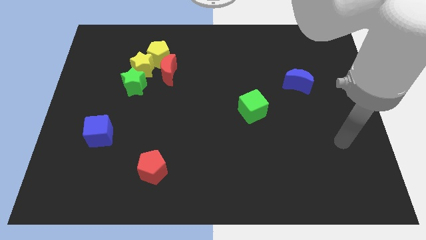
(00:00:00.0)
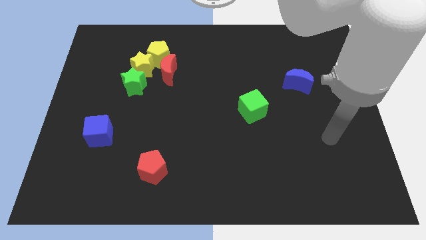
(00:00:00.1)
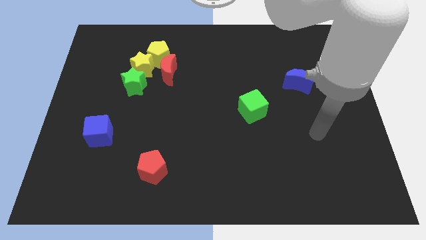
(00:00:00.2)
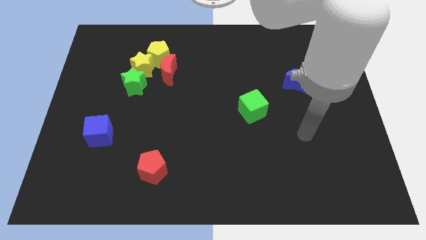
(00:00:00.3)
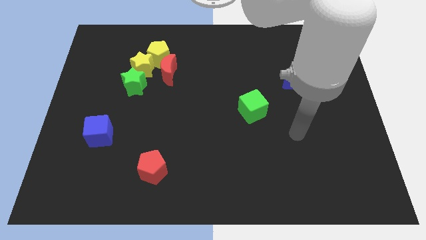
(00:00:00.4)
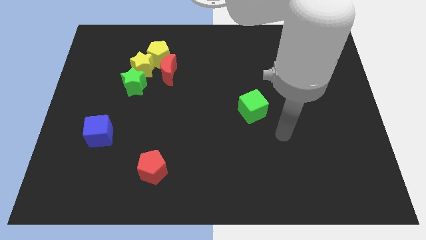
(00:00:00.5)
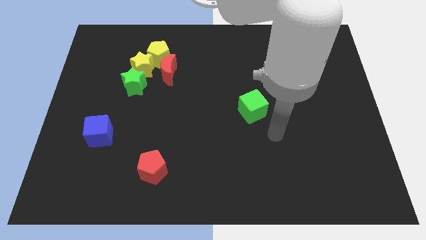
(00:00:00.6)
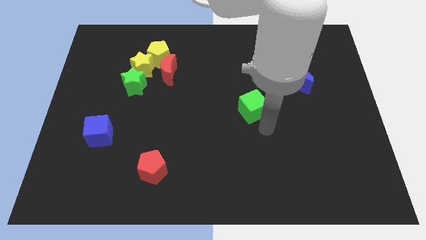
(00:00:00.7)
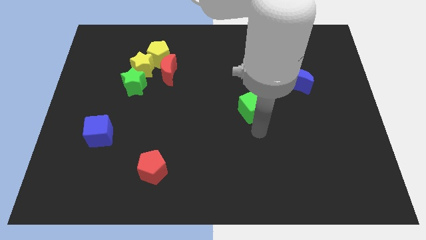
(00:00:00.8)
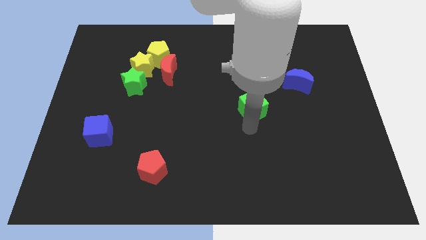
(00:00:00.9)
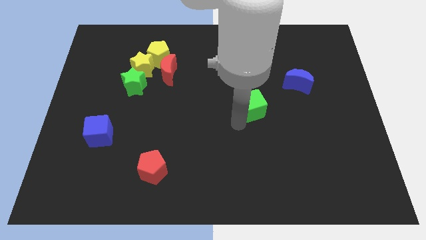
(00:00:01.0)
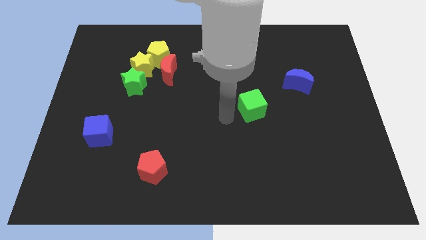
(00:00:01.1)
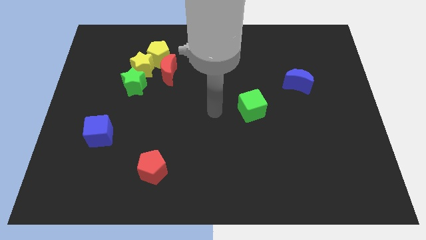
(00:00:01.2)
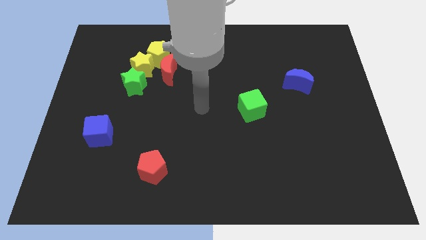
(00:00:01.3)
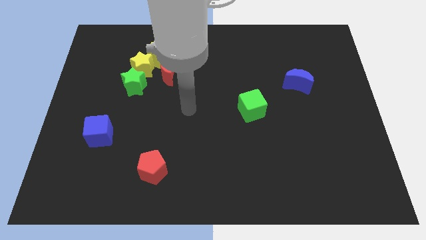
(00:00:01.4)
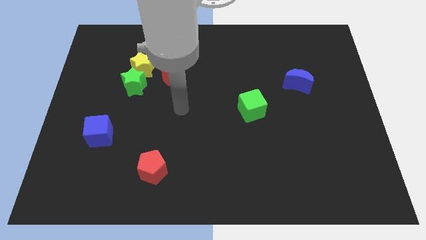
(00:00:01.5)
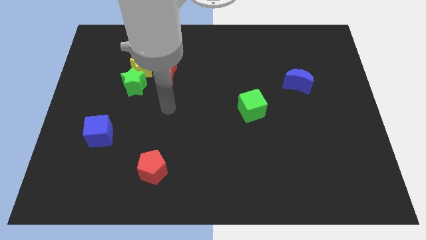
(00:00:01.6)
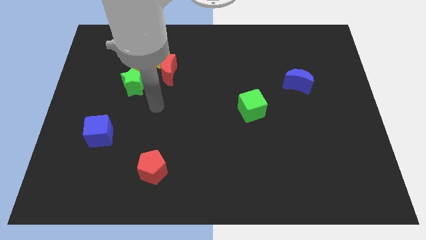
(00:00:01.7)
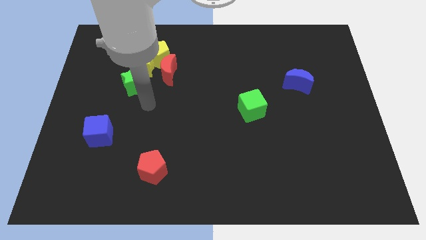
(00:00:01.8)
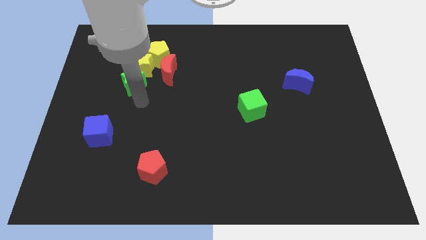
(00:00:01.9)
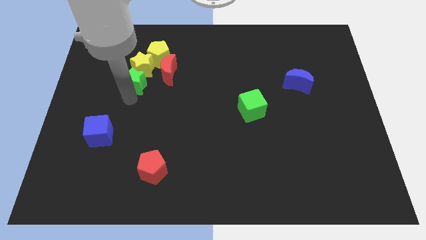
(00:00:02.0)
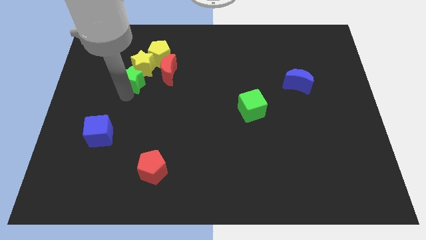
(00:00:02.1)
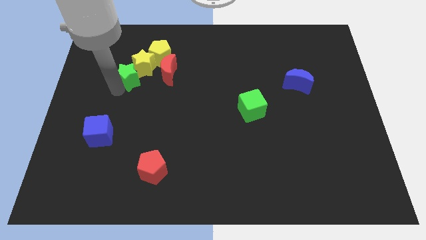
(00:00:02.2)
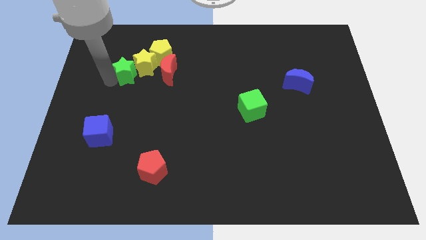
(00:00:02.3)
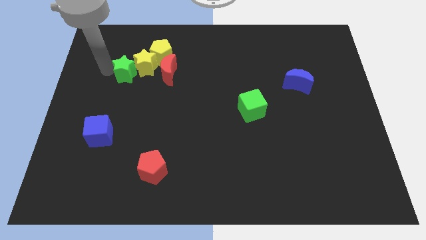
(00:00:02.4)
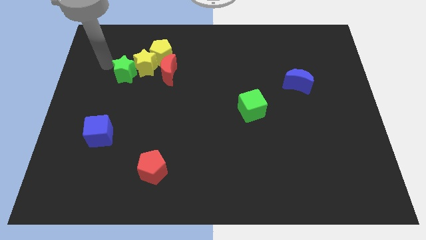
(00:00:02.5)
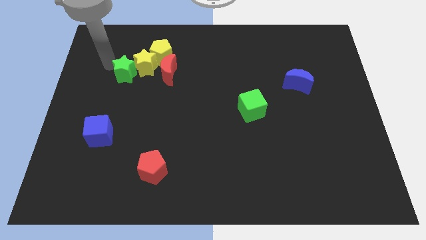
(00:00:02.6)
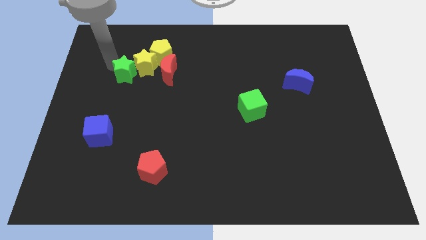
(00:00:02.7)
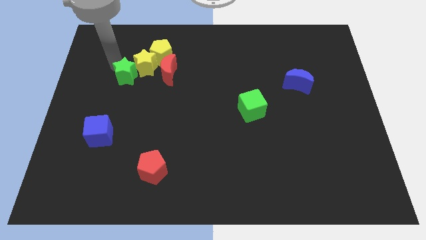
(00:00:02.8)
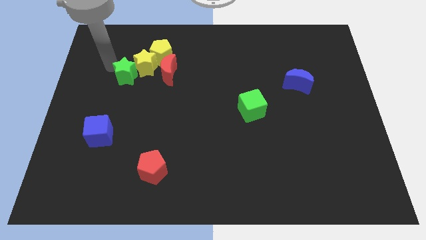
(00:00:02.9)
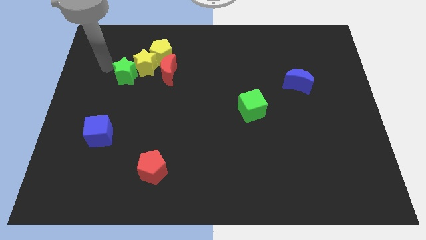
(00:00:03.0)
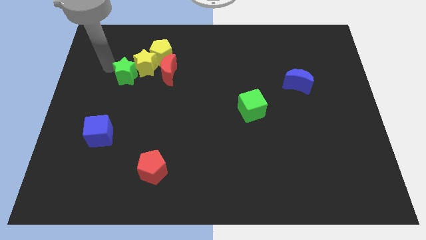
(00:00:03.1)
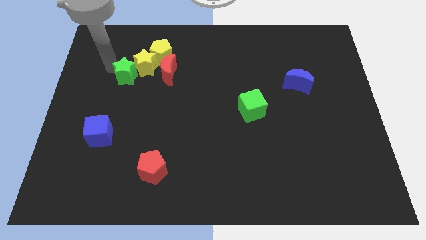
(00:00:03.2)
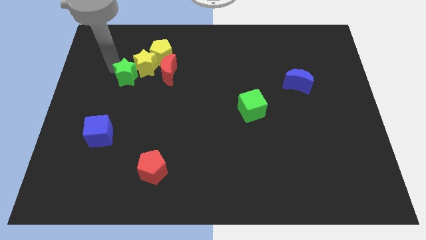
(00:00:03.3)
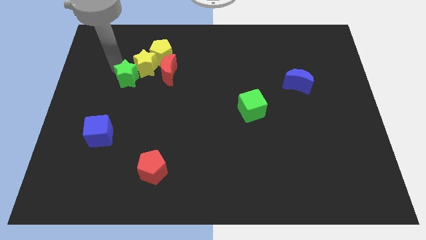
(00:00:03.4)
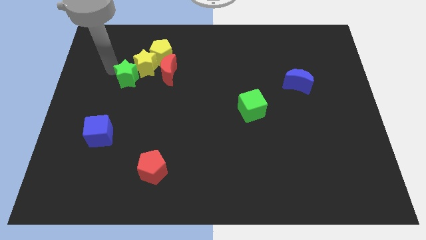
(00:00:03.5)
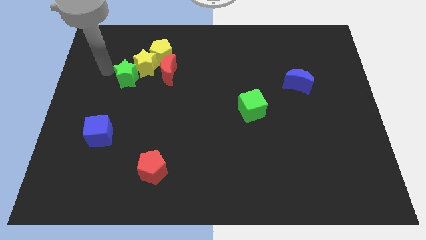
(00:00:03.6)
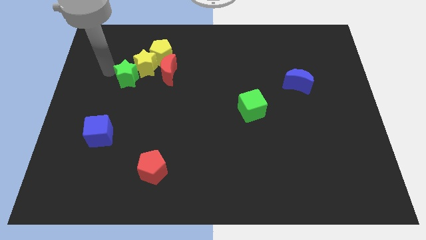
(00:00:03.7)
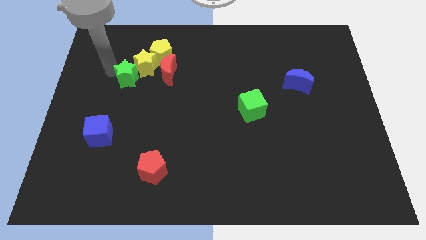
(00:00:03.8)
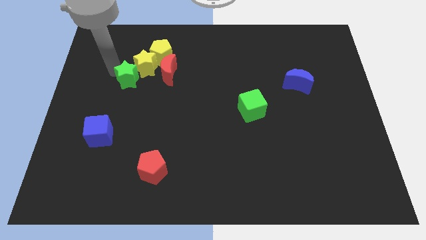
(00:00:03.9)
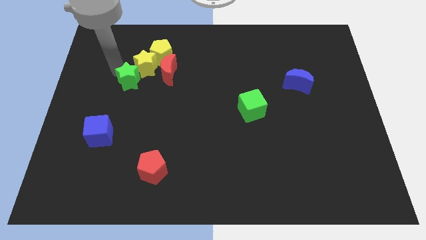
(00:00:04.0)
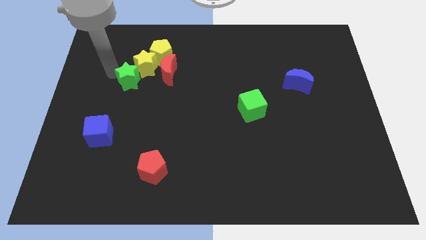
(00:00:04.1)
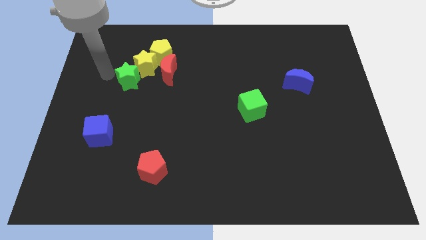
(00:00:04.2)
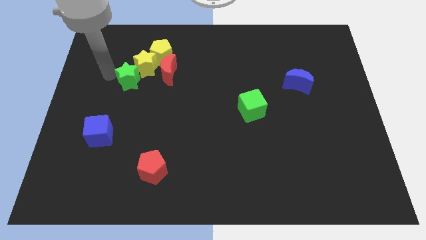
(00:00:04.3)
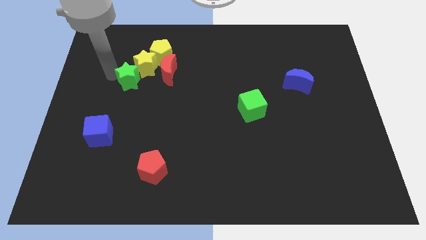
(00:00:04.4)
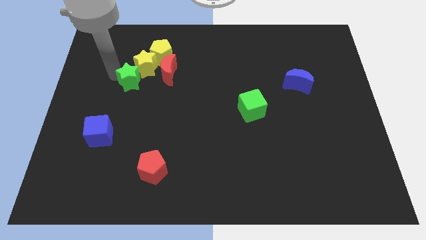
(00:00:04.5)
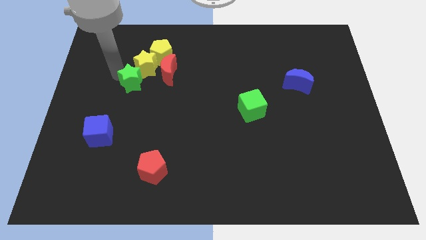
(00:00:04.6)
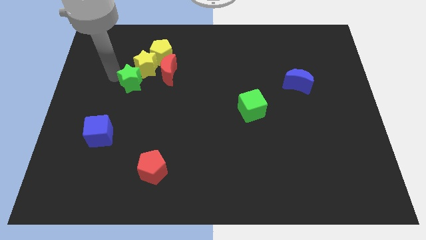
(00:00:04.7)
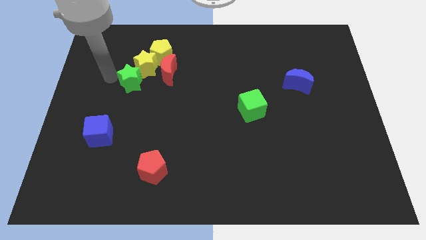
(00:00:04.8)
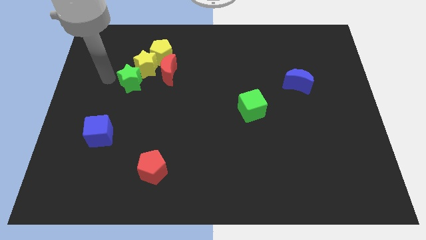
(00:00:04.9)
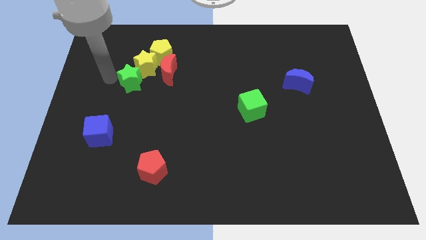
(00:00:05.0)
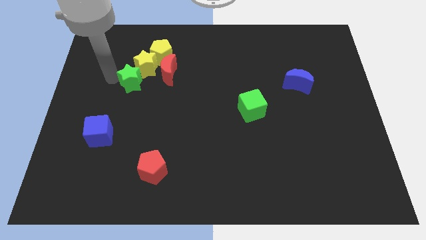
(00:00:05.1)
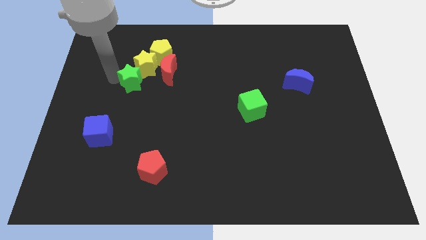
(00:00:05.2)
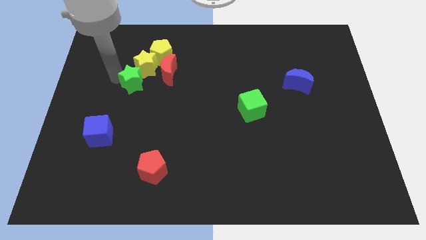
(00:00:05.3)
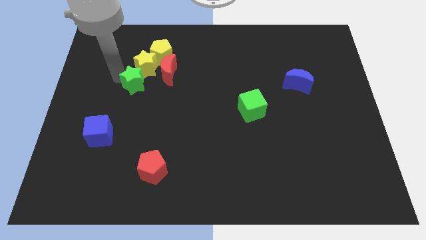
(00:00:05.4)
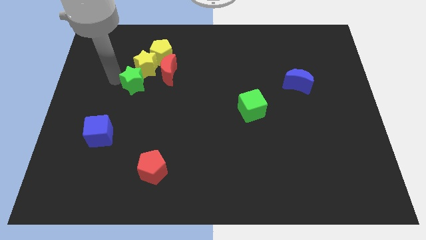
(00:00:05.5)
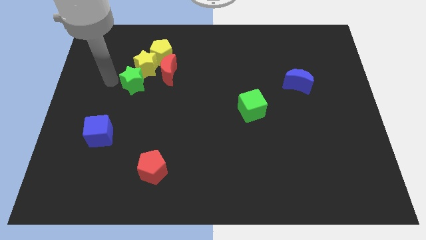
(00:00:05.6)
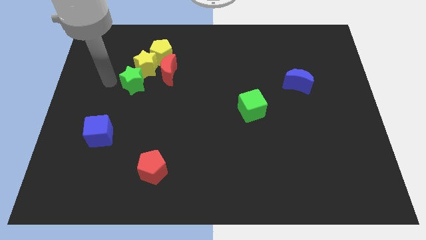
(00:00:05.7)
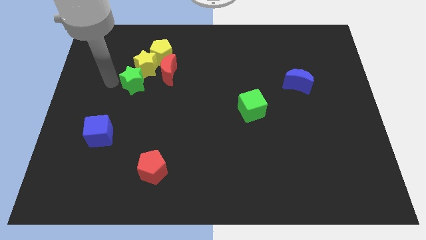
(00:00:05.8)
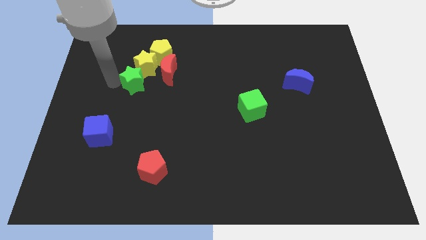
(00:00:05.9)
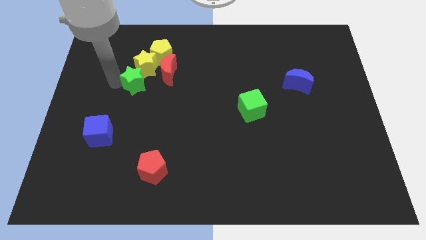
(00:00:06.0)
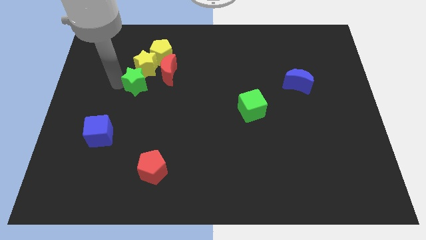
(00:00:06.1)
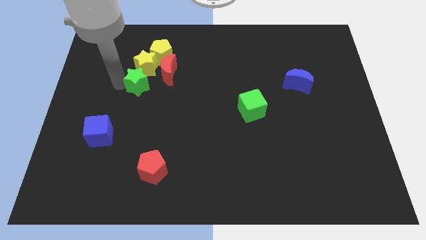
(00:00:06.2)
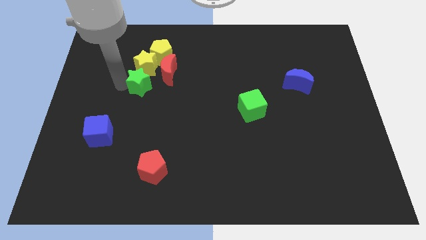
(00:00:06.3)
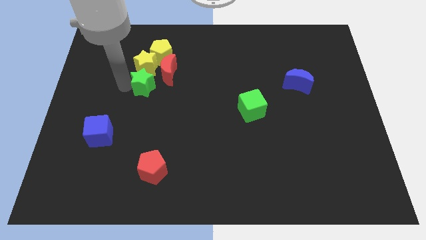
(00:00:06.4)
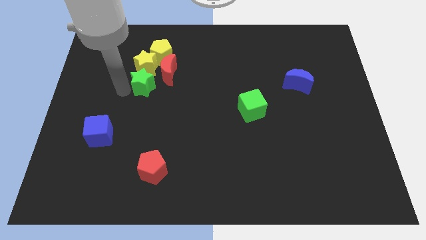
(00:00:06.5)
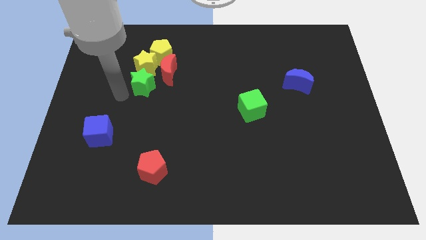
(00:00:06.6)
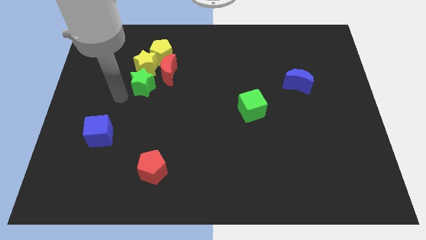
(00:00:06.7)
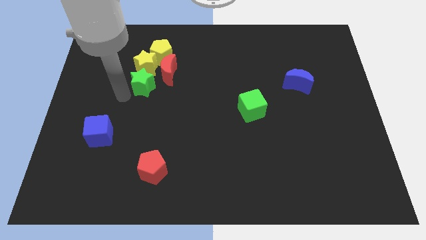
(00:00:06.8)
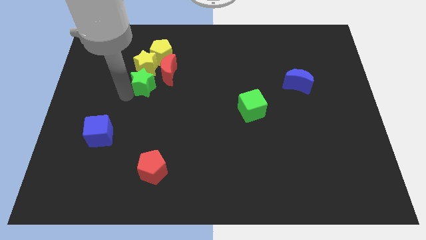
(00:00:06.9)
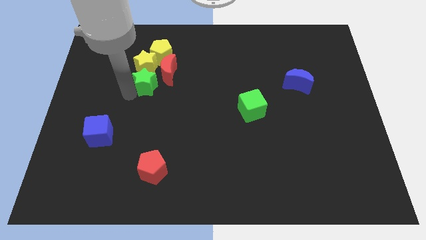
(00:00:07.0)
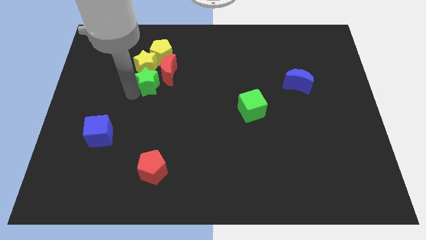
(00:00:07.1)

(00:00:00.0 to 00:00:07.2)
move the green star next to the red moon

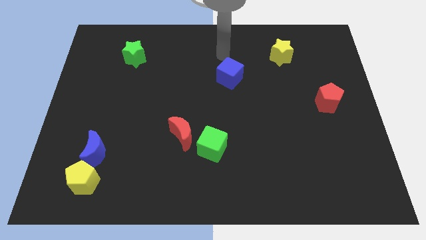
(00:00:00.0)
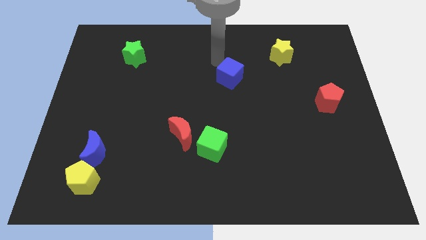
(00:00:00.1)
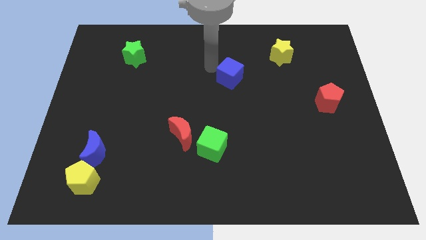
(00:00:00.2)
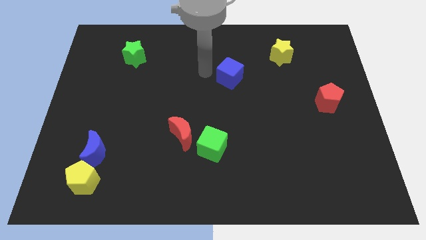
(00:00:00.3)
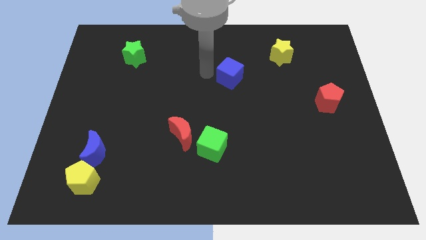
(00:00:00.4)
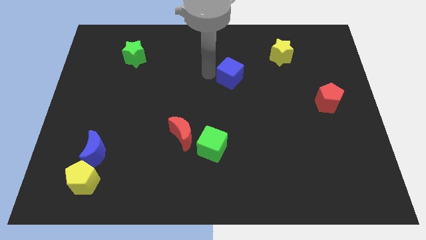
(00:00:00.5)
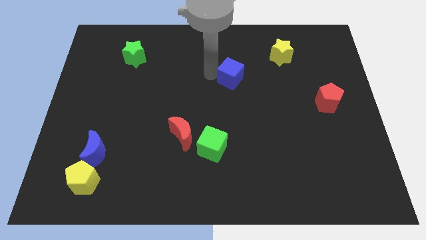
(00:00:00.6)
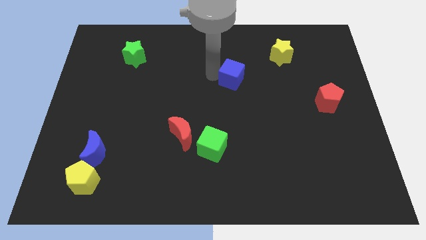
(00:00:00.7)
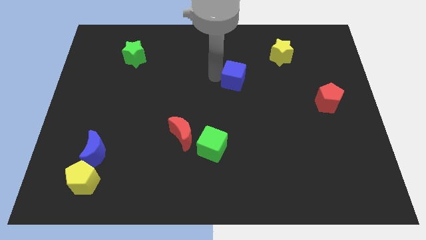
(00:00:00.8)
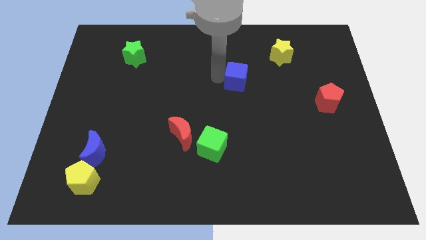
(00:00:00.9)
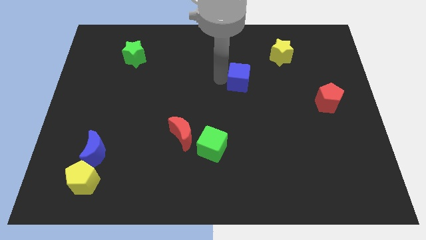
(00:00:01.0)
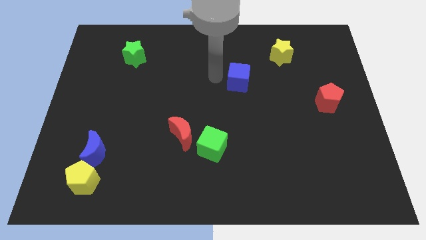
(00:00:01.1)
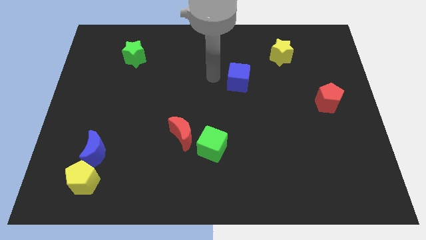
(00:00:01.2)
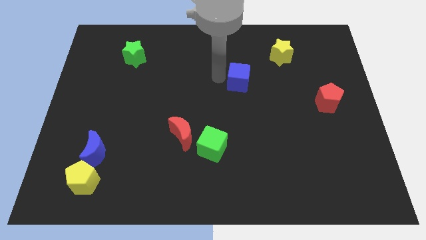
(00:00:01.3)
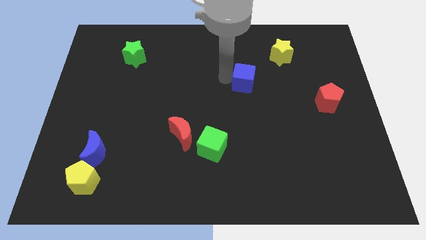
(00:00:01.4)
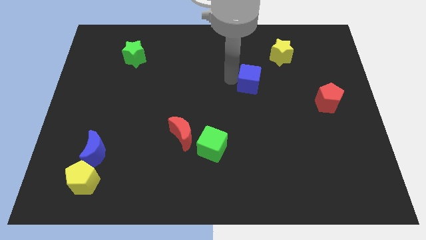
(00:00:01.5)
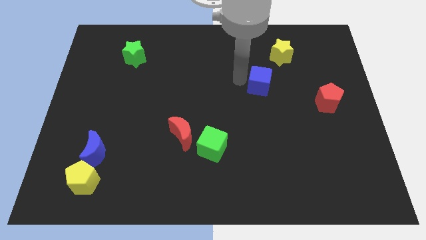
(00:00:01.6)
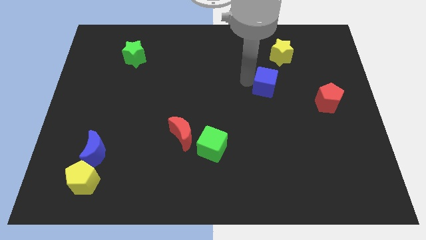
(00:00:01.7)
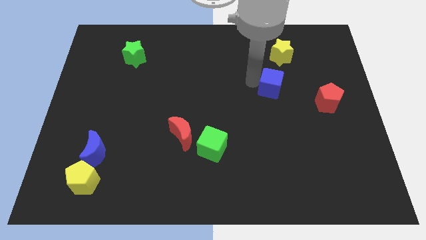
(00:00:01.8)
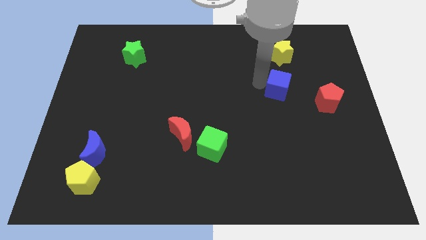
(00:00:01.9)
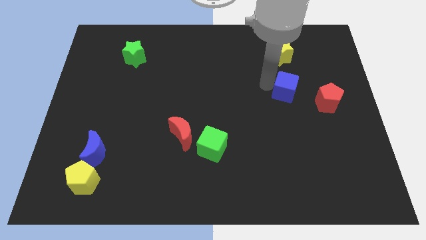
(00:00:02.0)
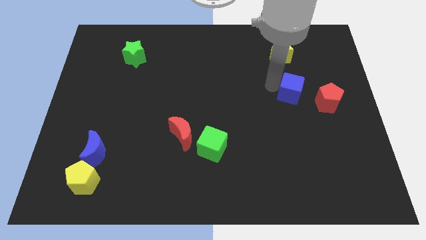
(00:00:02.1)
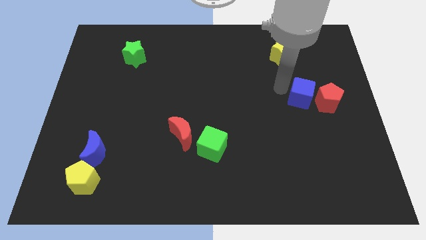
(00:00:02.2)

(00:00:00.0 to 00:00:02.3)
push the blue cube next to the red pentagon
